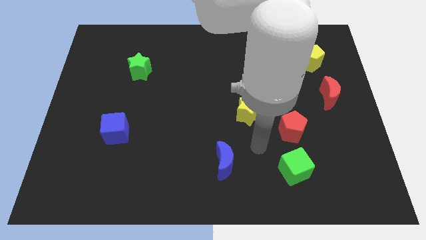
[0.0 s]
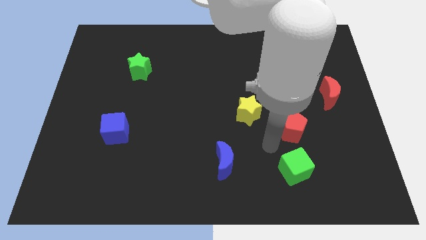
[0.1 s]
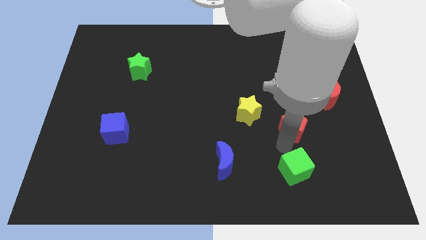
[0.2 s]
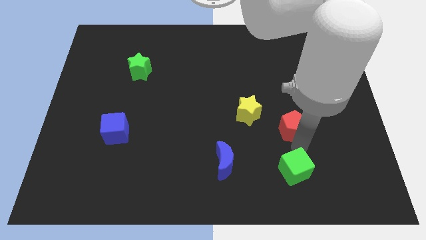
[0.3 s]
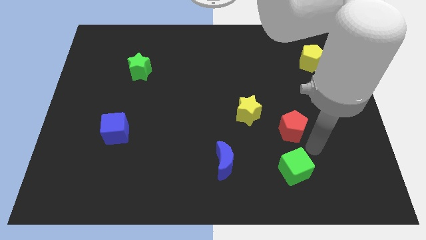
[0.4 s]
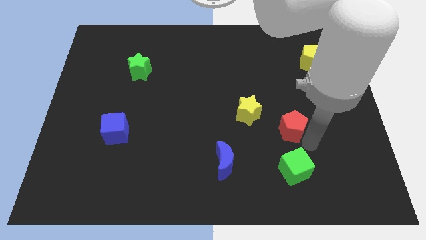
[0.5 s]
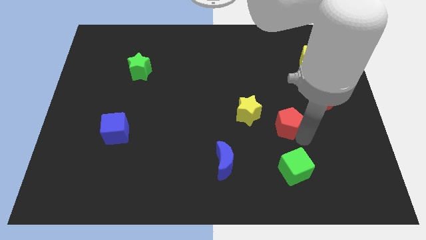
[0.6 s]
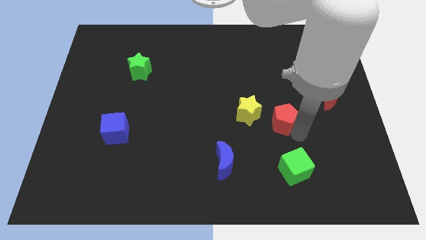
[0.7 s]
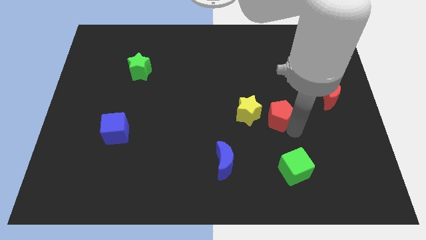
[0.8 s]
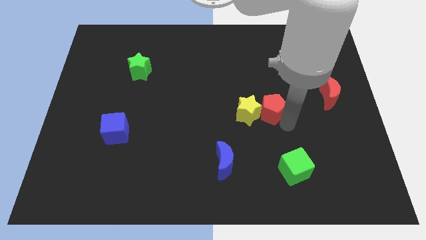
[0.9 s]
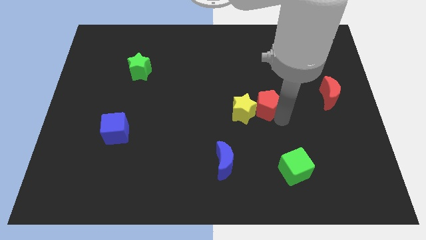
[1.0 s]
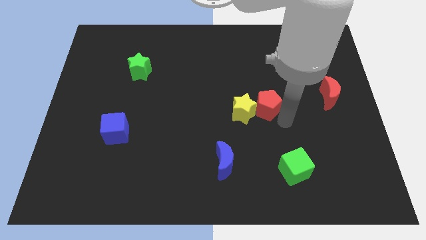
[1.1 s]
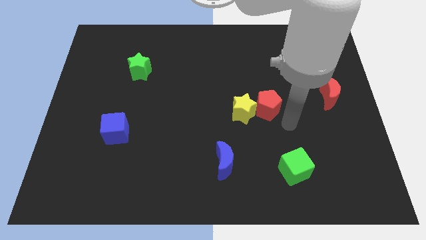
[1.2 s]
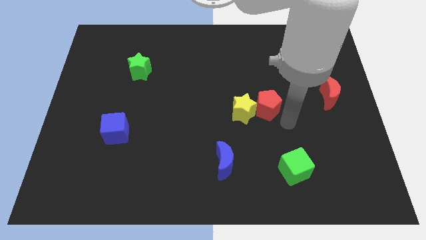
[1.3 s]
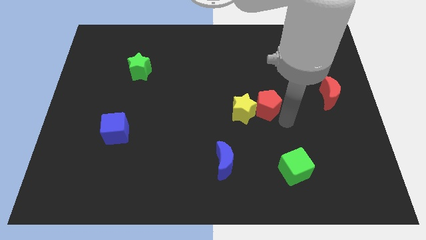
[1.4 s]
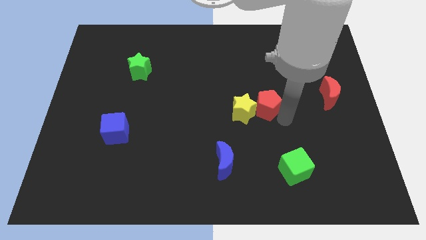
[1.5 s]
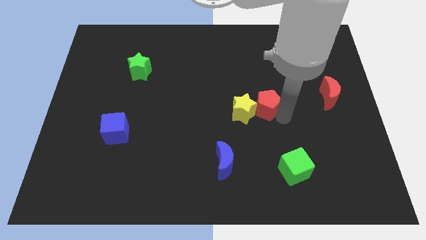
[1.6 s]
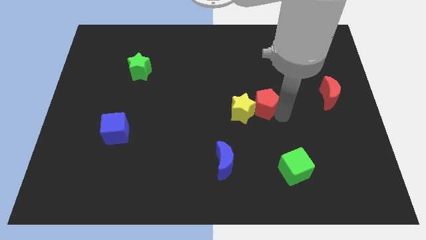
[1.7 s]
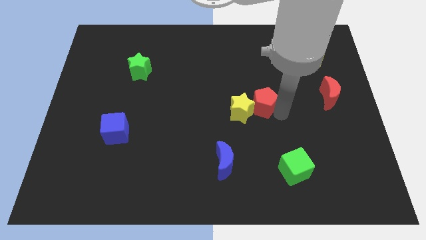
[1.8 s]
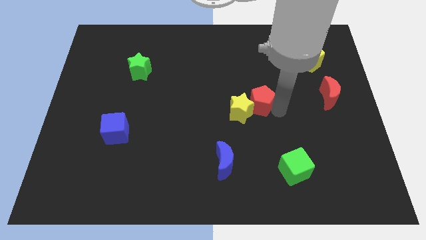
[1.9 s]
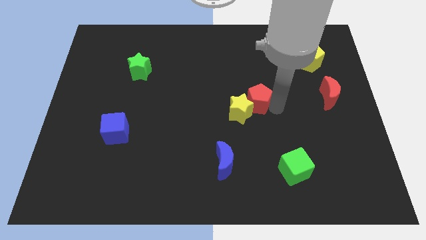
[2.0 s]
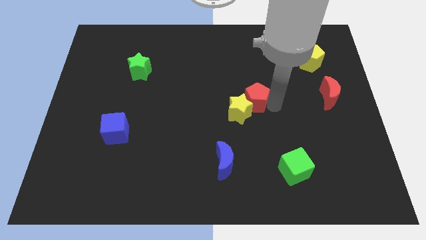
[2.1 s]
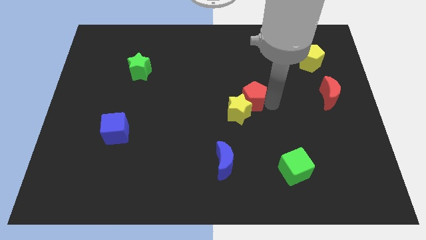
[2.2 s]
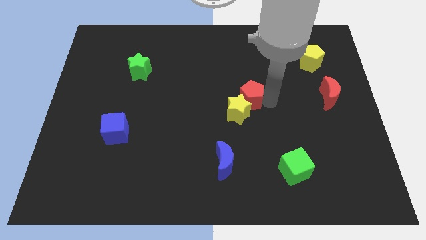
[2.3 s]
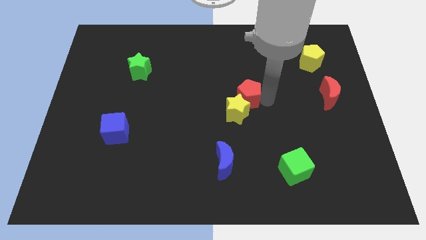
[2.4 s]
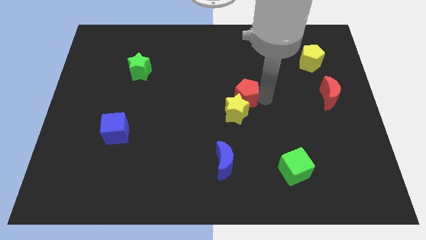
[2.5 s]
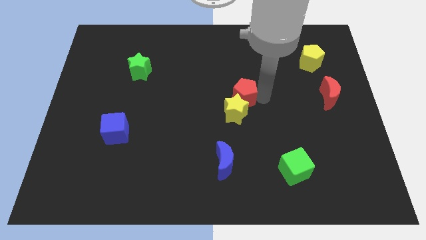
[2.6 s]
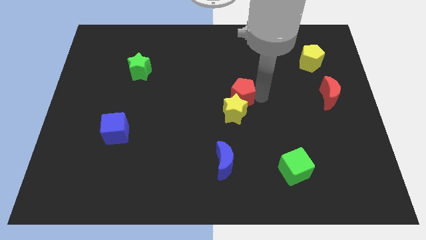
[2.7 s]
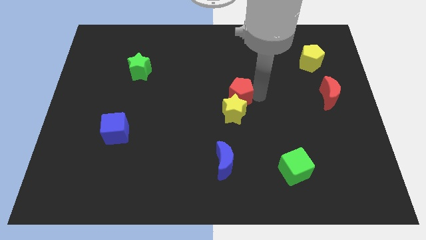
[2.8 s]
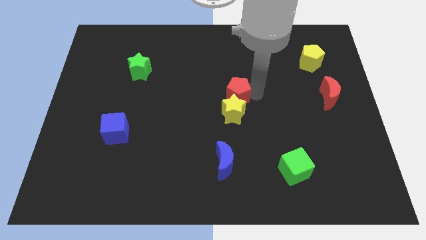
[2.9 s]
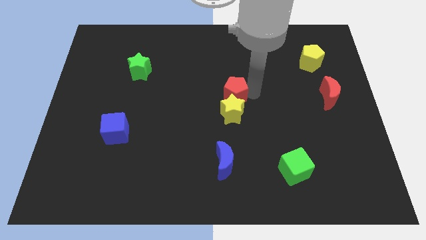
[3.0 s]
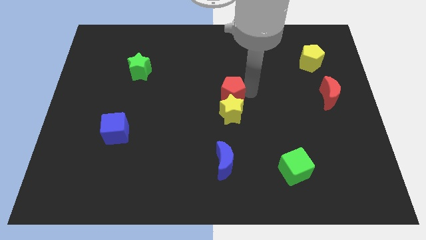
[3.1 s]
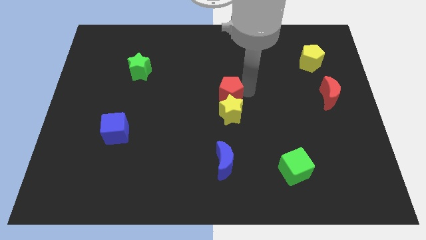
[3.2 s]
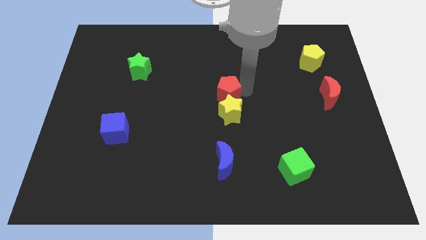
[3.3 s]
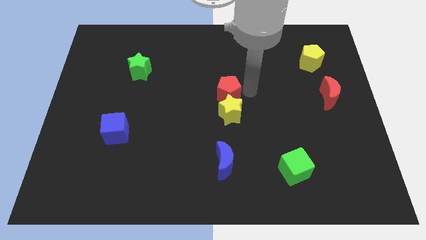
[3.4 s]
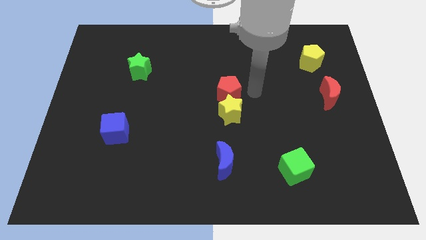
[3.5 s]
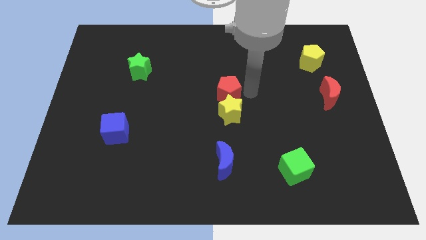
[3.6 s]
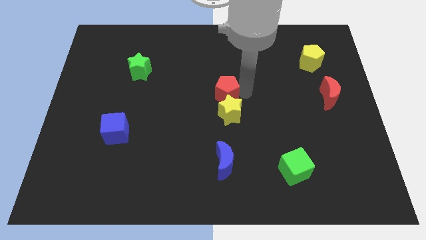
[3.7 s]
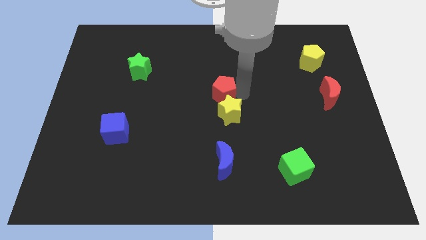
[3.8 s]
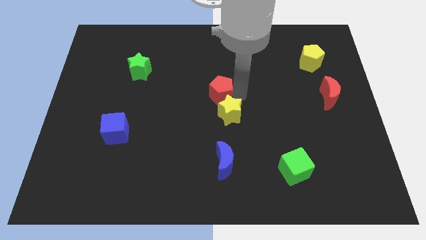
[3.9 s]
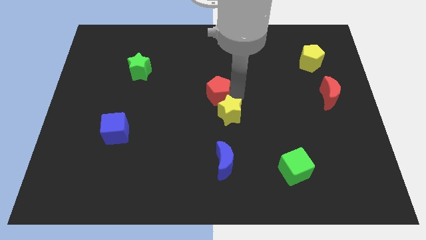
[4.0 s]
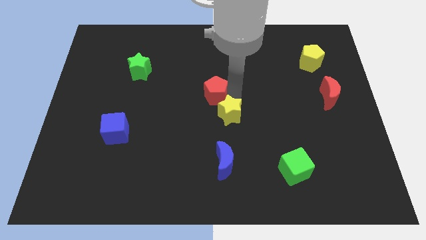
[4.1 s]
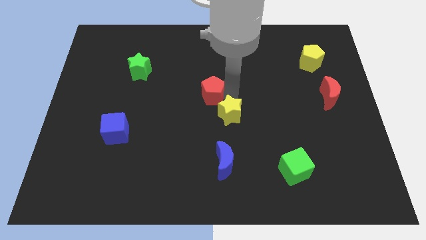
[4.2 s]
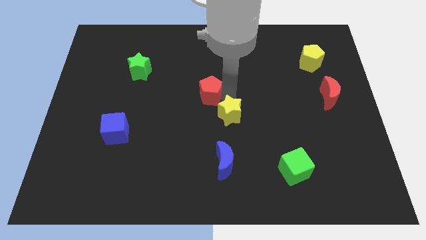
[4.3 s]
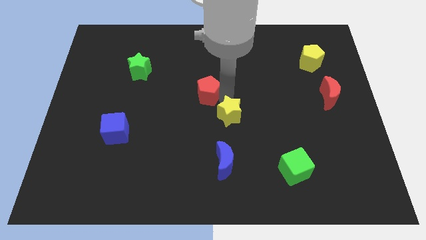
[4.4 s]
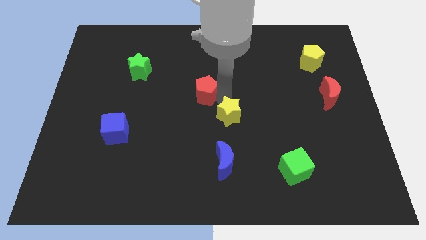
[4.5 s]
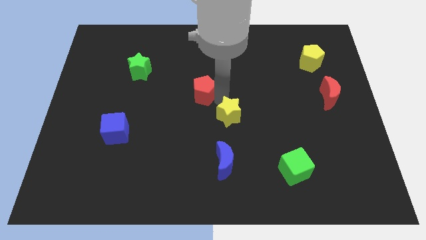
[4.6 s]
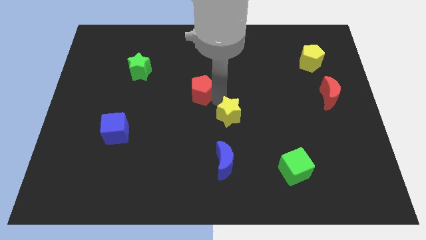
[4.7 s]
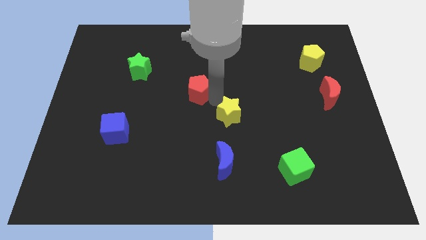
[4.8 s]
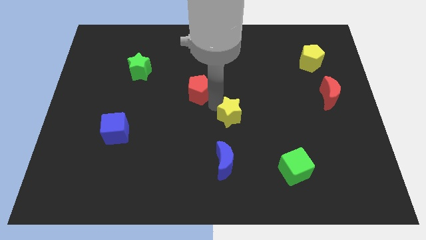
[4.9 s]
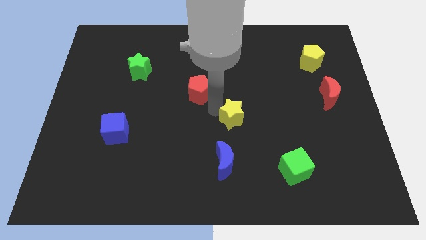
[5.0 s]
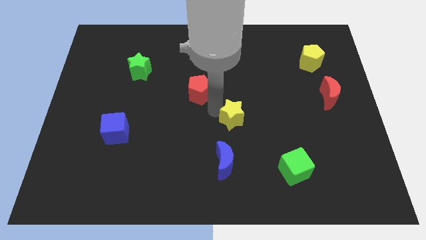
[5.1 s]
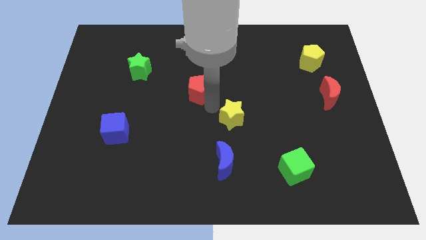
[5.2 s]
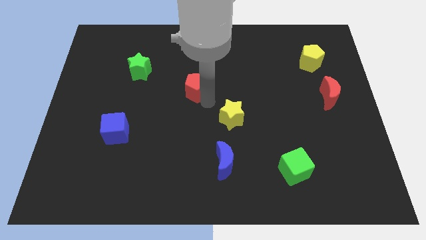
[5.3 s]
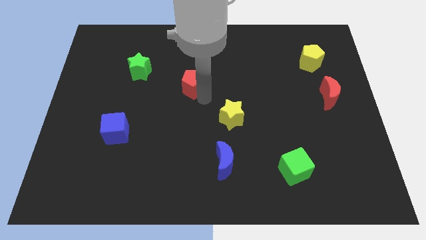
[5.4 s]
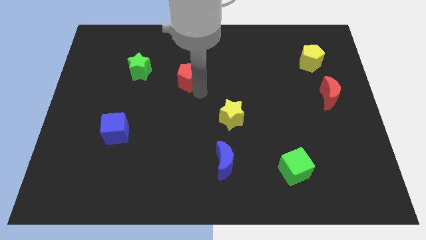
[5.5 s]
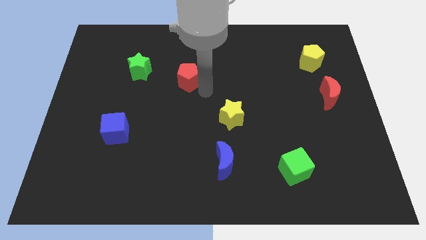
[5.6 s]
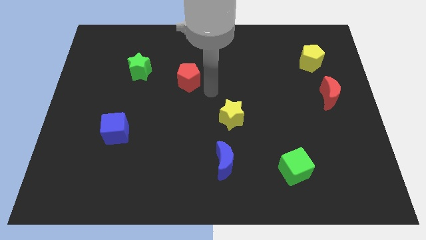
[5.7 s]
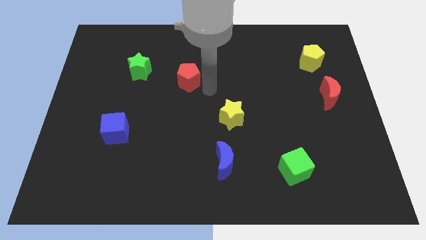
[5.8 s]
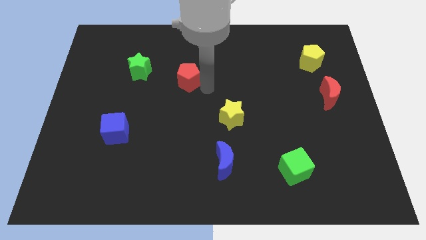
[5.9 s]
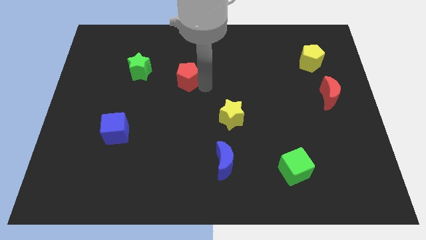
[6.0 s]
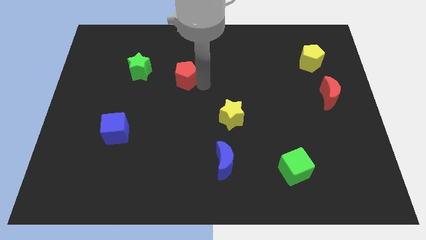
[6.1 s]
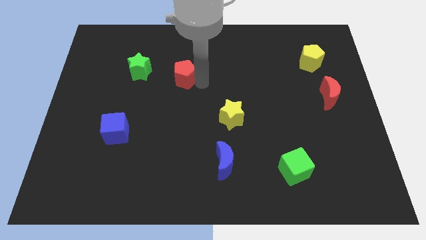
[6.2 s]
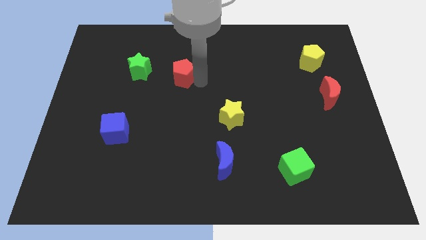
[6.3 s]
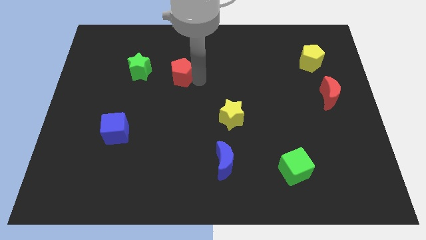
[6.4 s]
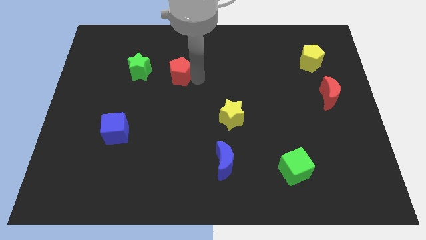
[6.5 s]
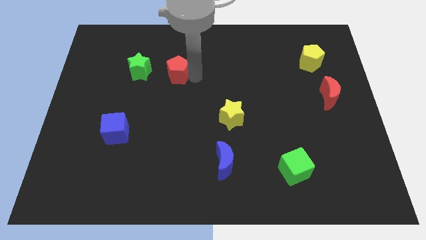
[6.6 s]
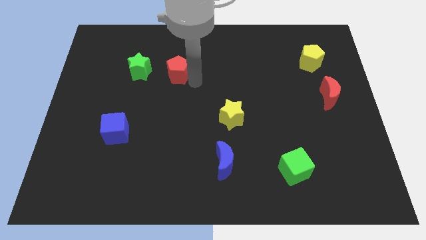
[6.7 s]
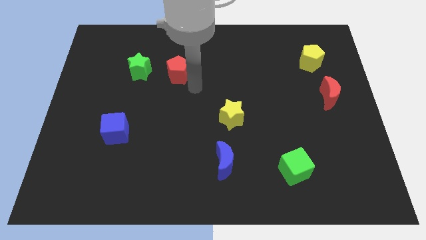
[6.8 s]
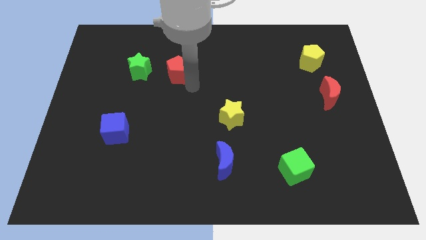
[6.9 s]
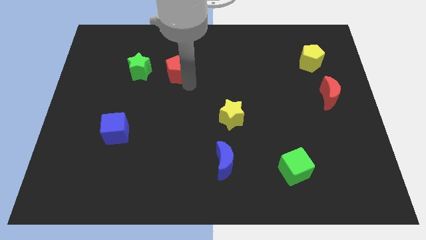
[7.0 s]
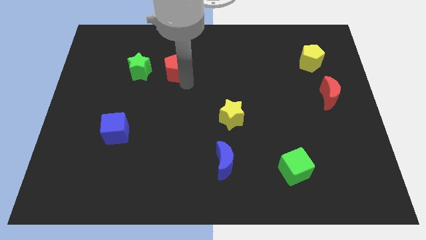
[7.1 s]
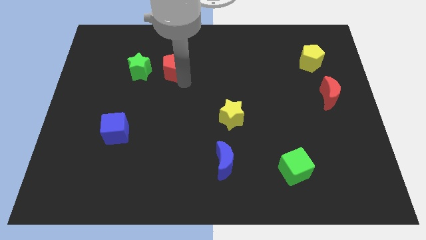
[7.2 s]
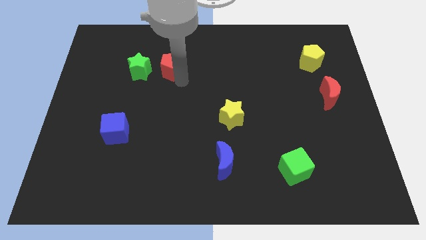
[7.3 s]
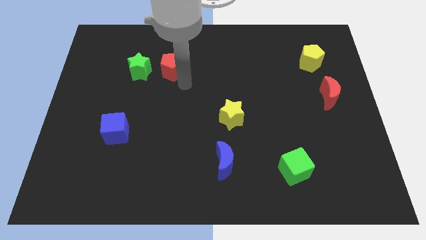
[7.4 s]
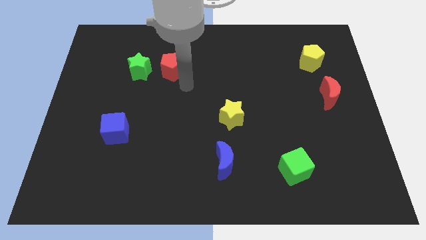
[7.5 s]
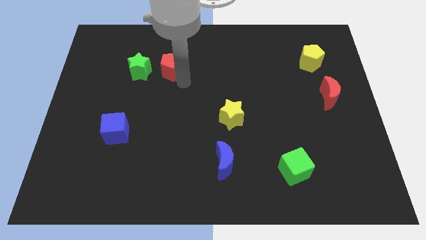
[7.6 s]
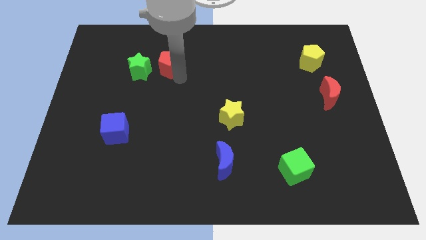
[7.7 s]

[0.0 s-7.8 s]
put the red pentagon to the top right of the green star
